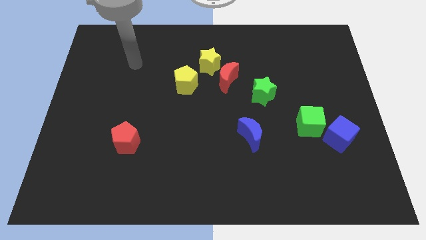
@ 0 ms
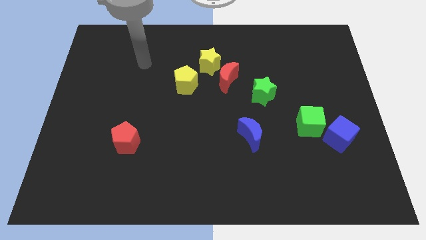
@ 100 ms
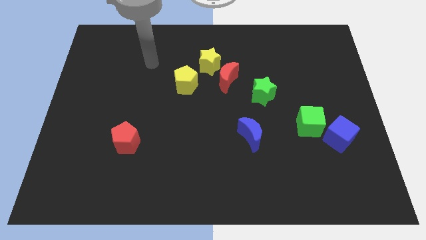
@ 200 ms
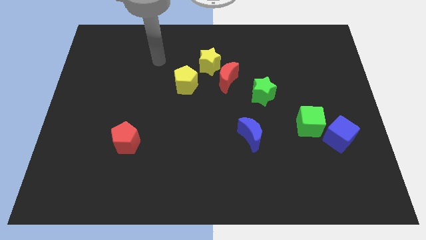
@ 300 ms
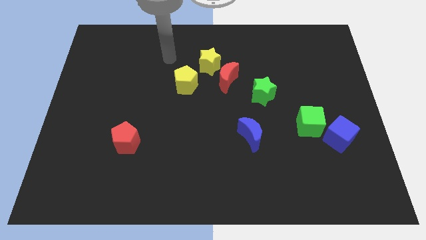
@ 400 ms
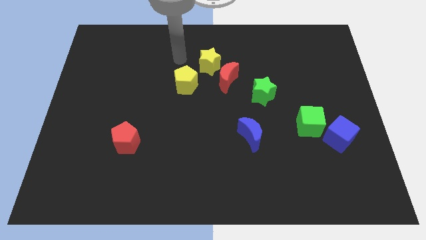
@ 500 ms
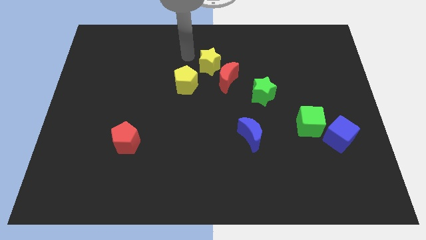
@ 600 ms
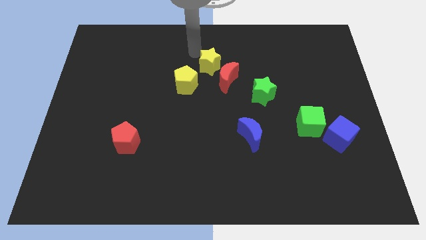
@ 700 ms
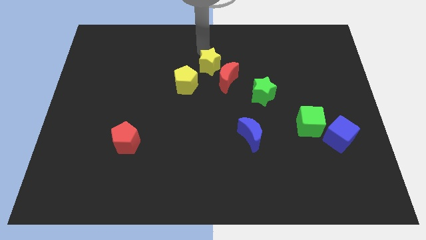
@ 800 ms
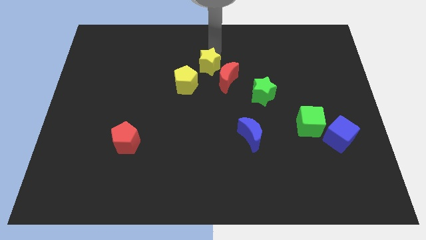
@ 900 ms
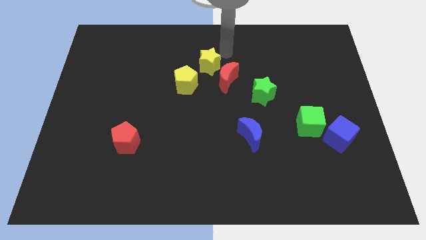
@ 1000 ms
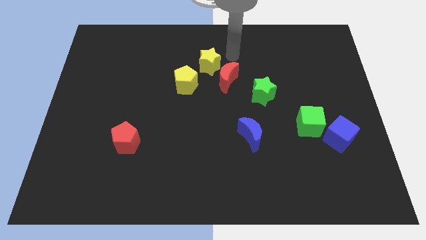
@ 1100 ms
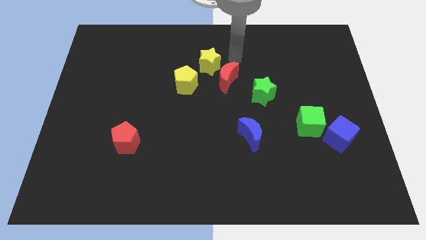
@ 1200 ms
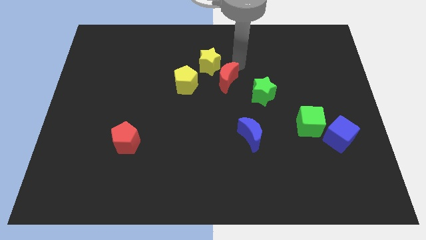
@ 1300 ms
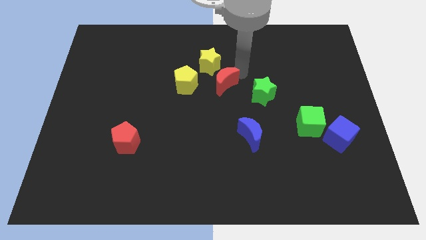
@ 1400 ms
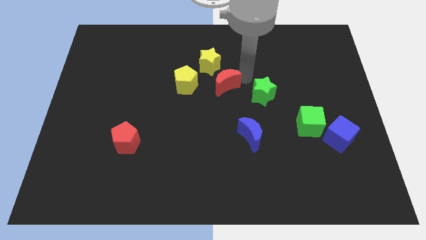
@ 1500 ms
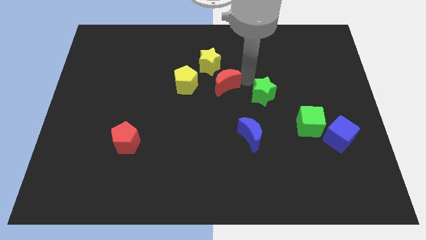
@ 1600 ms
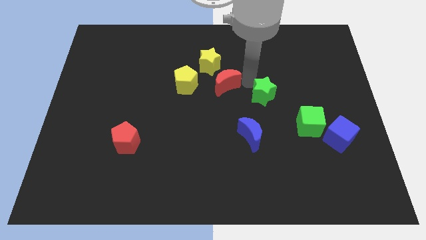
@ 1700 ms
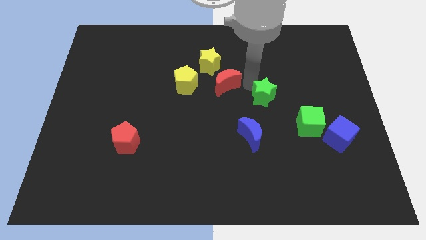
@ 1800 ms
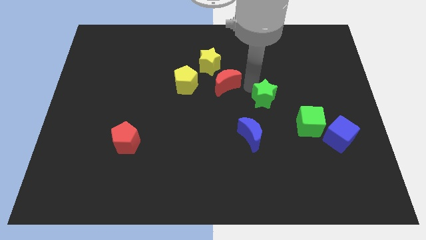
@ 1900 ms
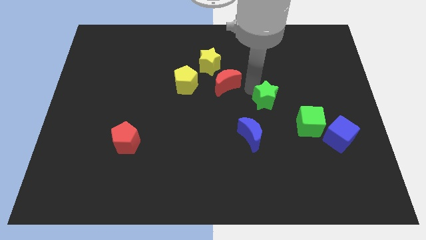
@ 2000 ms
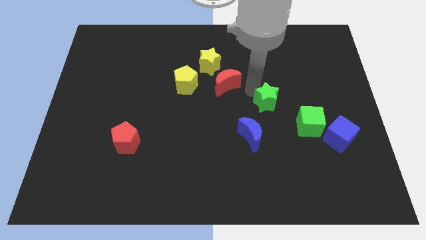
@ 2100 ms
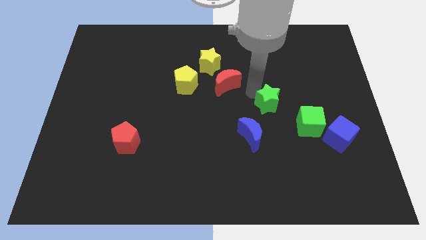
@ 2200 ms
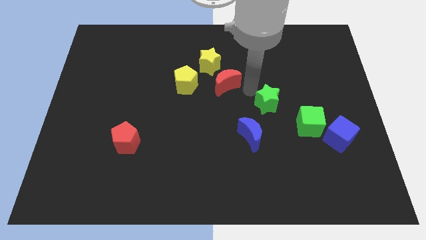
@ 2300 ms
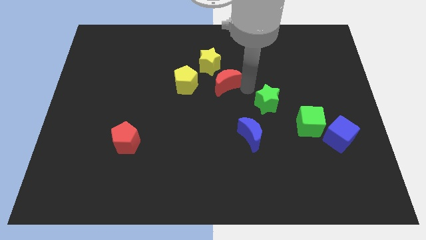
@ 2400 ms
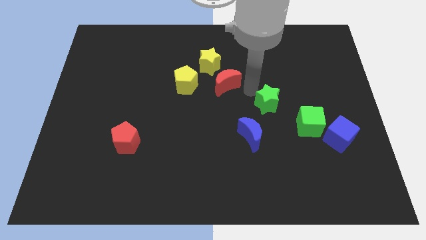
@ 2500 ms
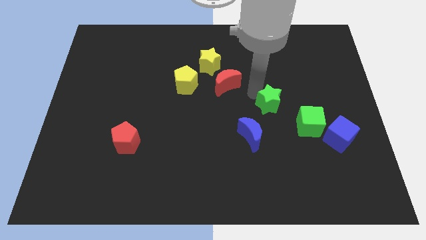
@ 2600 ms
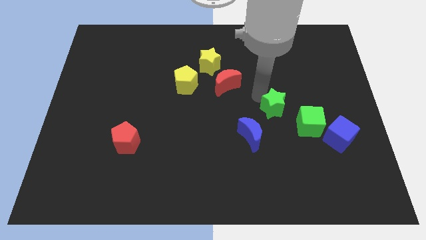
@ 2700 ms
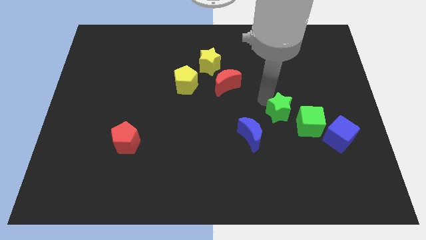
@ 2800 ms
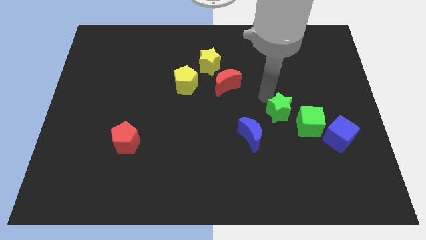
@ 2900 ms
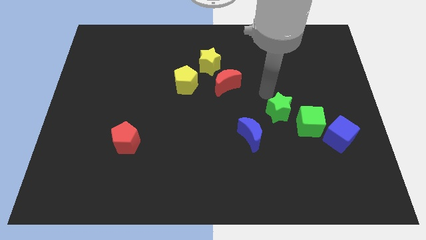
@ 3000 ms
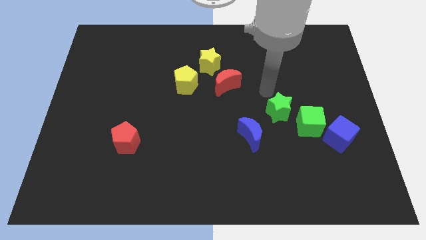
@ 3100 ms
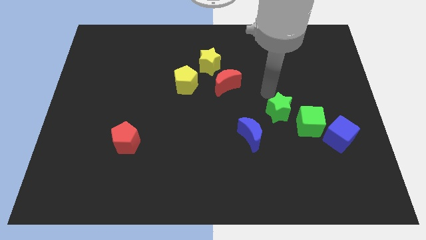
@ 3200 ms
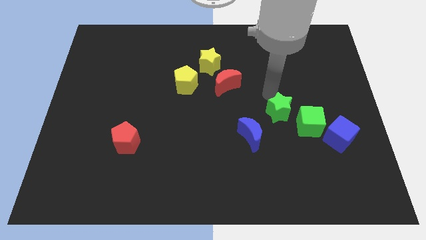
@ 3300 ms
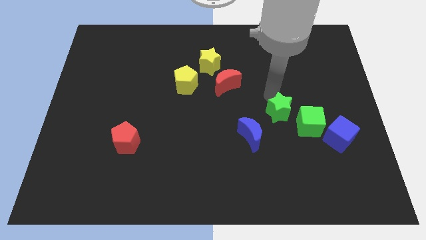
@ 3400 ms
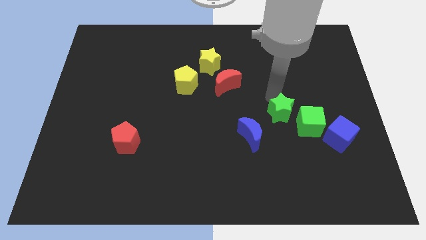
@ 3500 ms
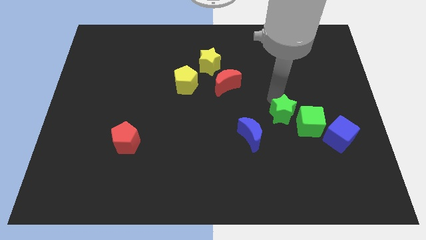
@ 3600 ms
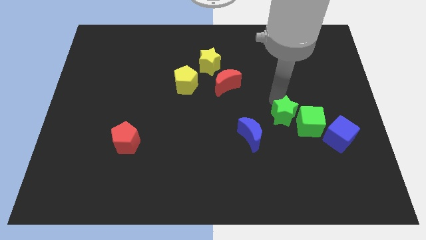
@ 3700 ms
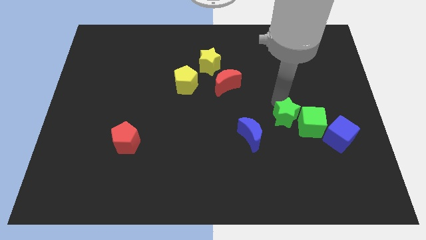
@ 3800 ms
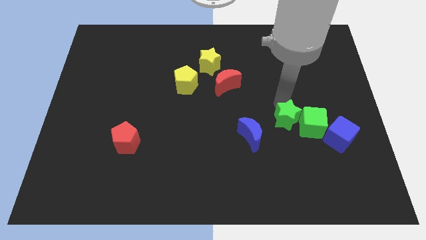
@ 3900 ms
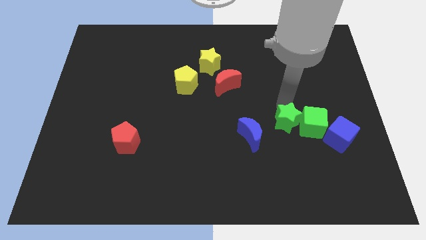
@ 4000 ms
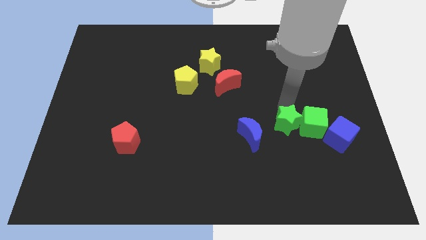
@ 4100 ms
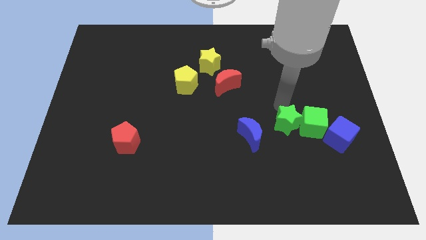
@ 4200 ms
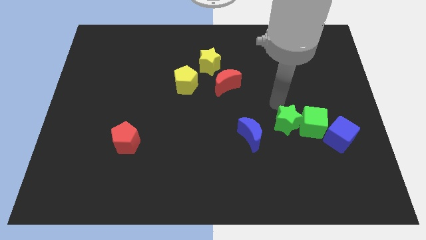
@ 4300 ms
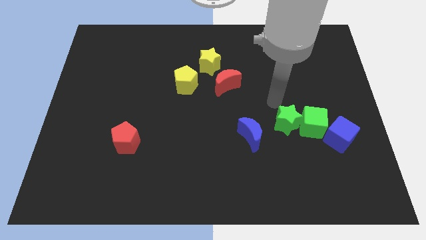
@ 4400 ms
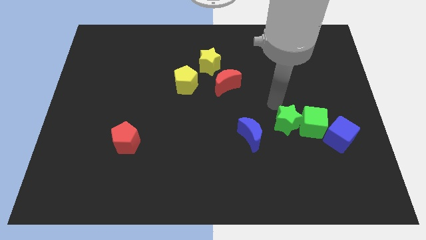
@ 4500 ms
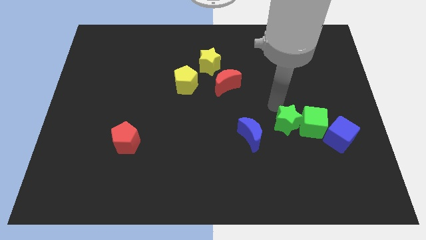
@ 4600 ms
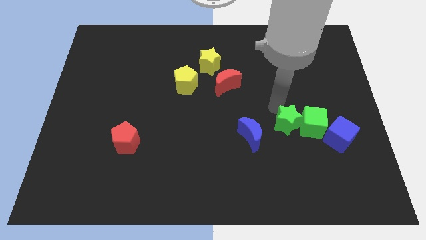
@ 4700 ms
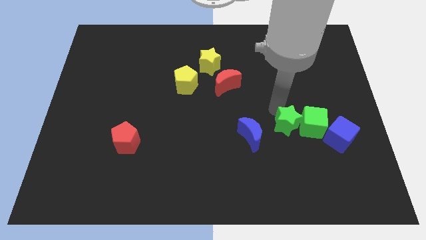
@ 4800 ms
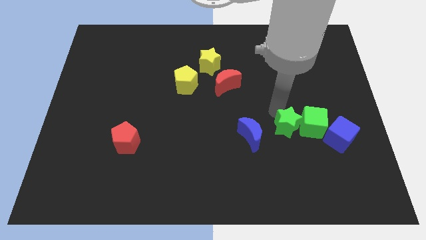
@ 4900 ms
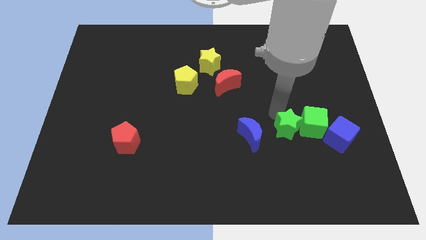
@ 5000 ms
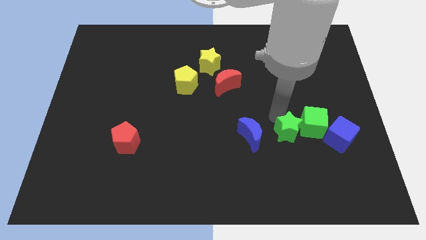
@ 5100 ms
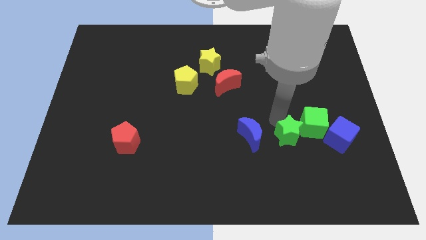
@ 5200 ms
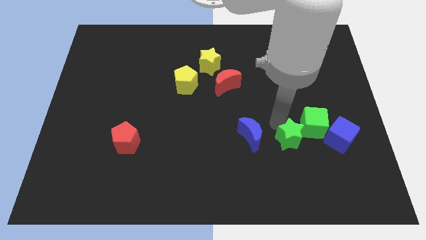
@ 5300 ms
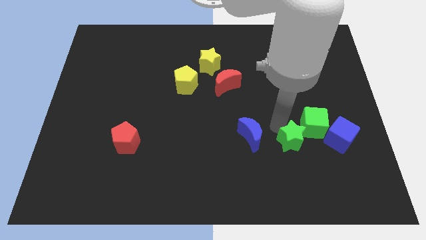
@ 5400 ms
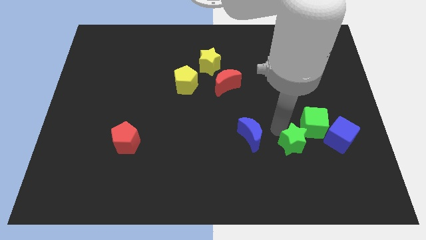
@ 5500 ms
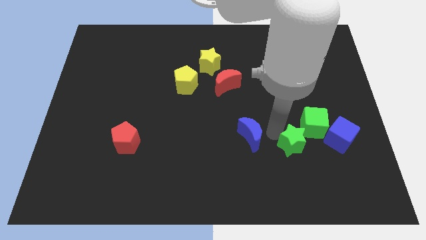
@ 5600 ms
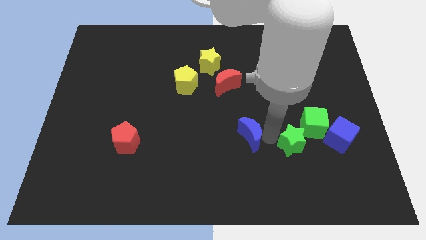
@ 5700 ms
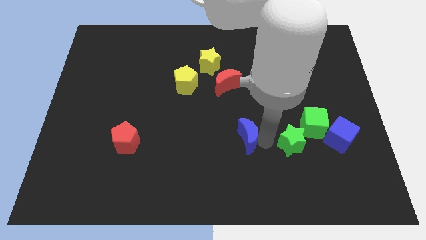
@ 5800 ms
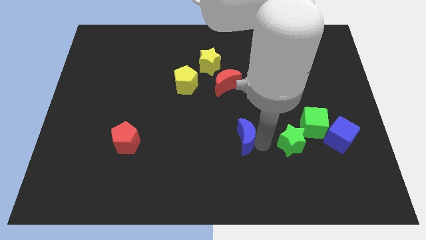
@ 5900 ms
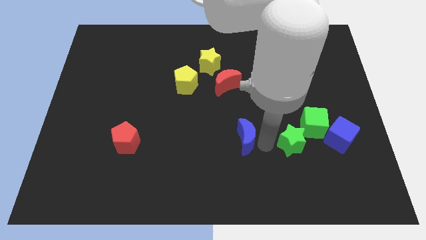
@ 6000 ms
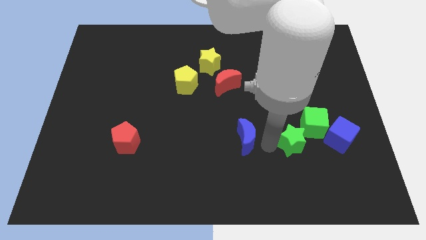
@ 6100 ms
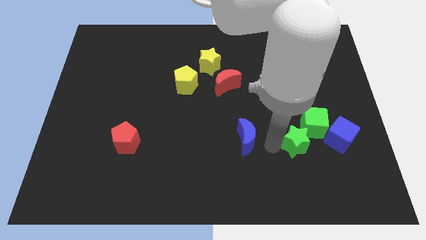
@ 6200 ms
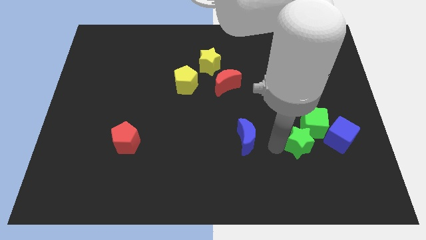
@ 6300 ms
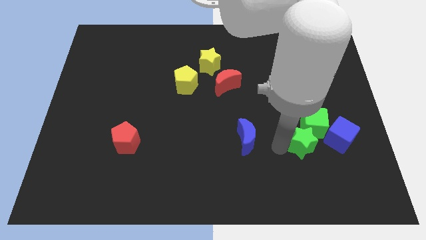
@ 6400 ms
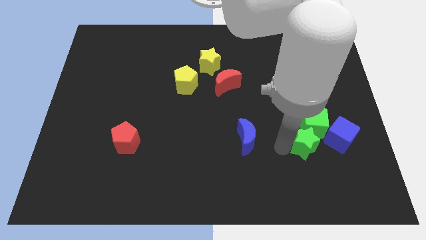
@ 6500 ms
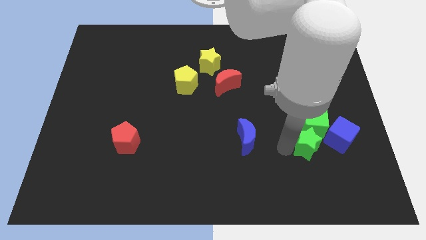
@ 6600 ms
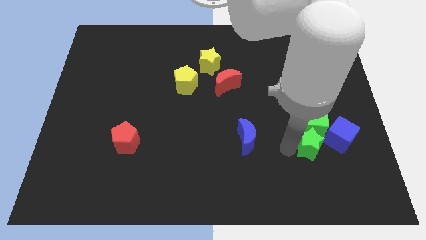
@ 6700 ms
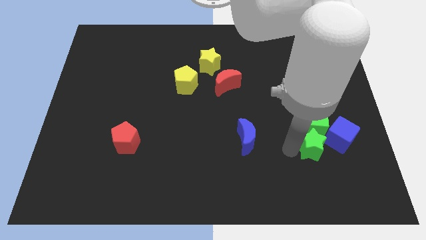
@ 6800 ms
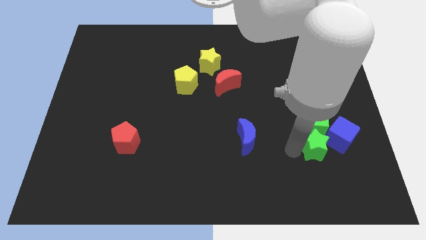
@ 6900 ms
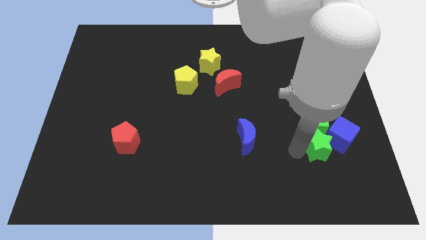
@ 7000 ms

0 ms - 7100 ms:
push the green star next to the blue cube

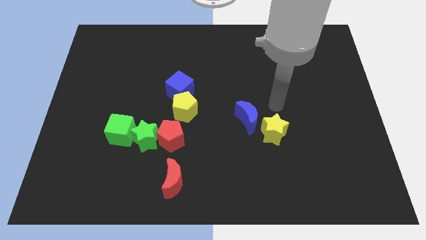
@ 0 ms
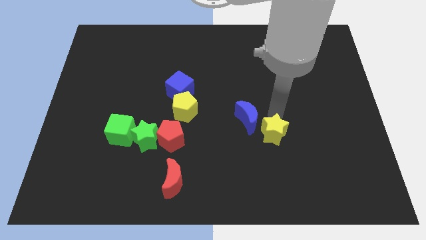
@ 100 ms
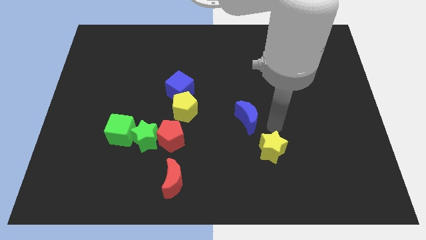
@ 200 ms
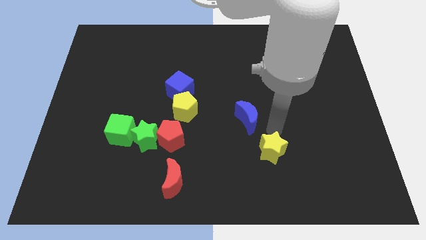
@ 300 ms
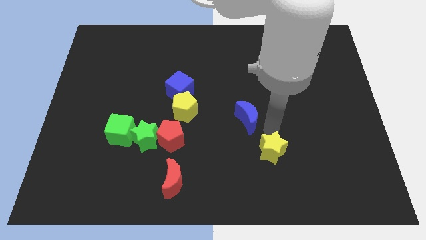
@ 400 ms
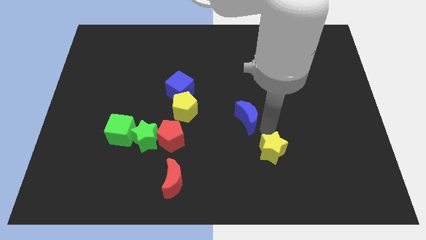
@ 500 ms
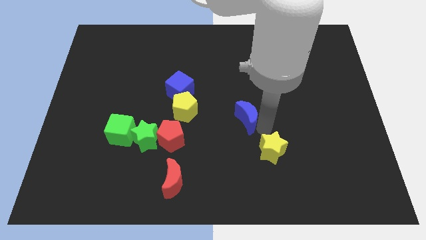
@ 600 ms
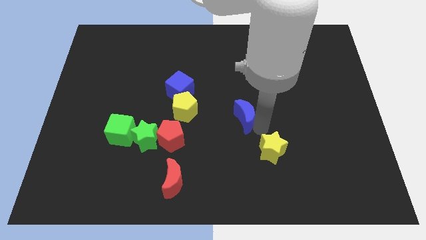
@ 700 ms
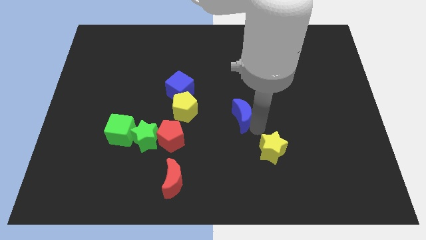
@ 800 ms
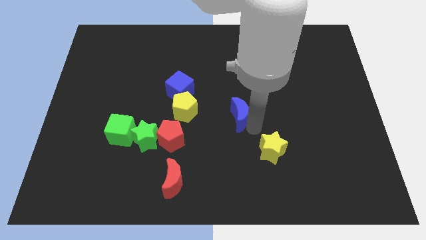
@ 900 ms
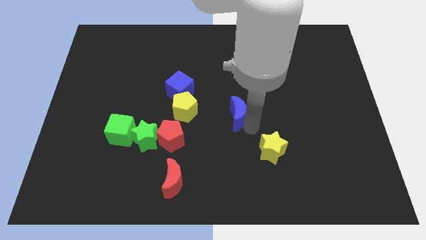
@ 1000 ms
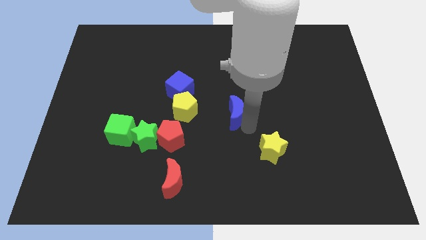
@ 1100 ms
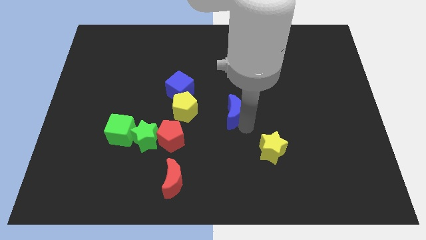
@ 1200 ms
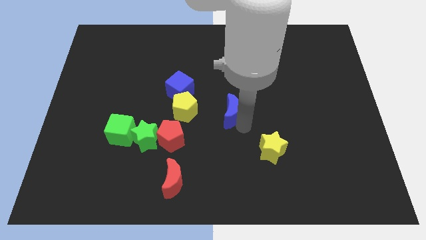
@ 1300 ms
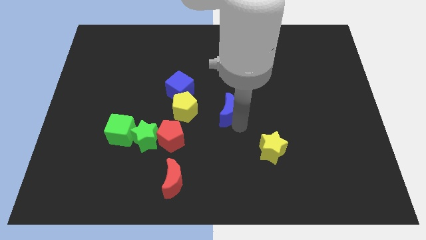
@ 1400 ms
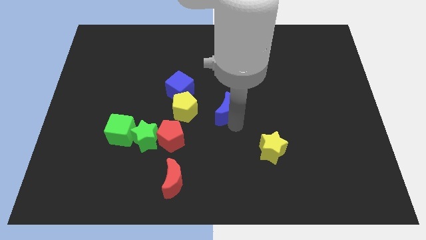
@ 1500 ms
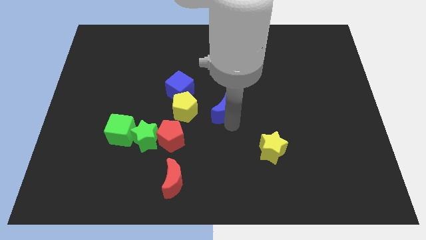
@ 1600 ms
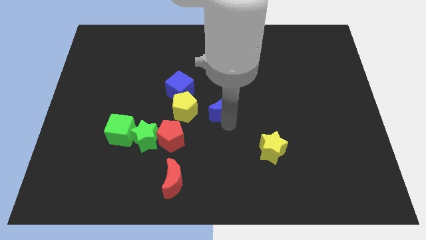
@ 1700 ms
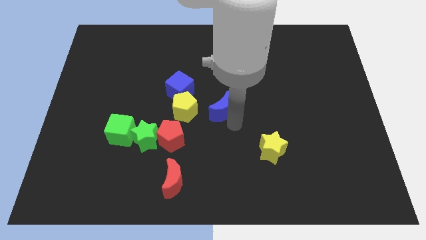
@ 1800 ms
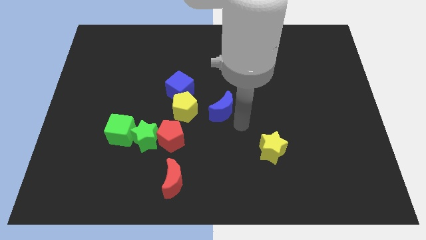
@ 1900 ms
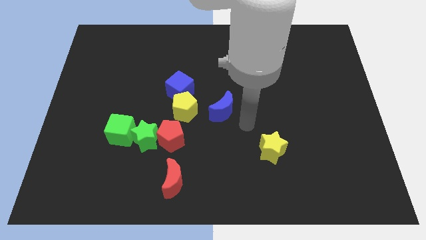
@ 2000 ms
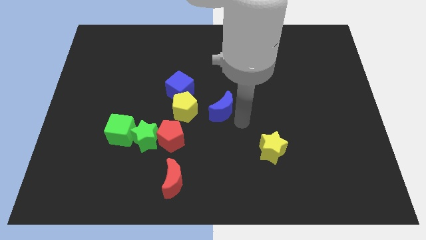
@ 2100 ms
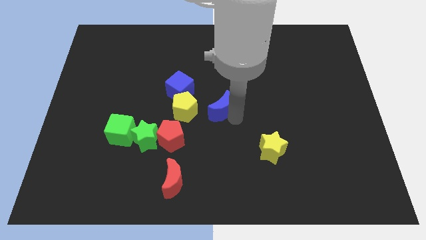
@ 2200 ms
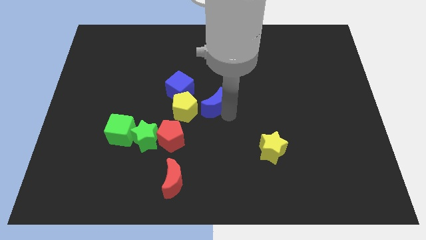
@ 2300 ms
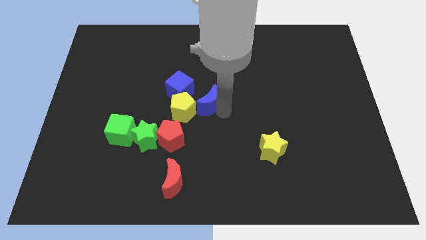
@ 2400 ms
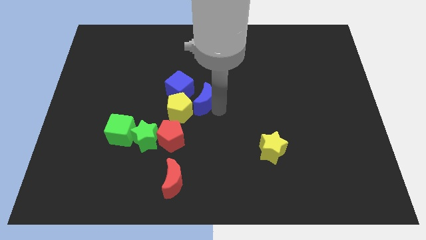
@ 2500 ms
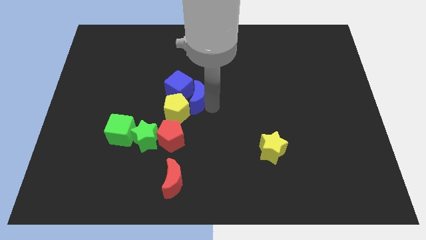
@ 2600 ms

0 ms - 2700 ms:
move the blue moon close to the blue cube
